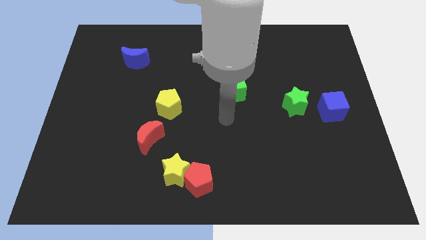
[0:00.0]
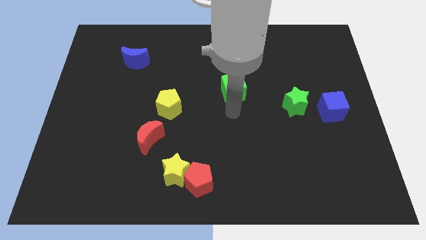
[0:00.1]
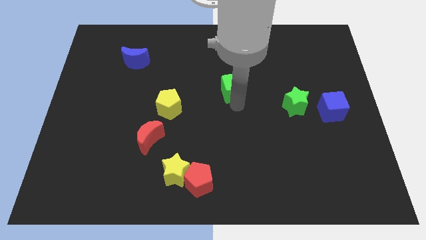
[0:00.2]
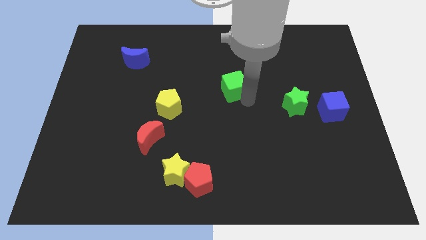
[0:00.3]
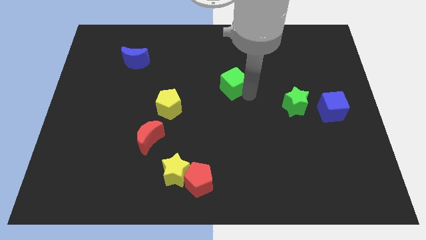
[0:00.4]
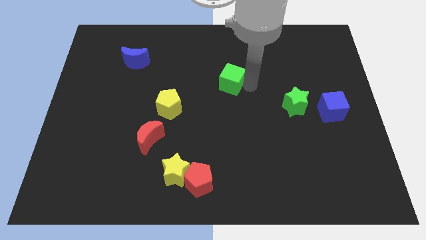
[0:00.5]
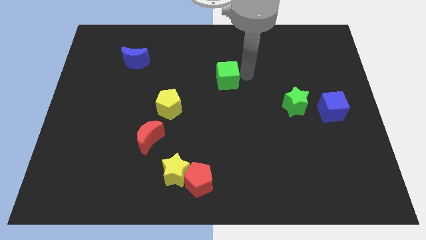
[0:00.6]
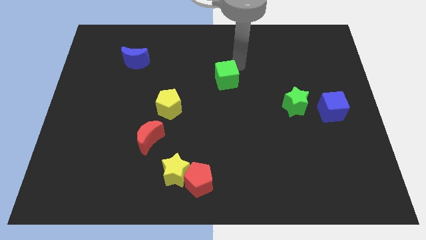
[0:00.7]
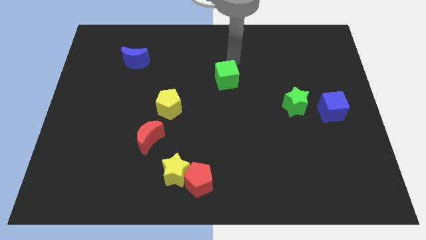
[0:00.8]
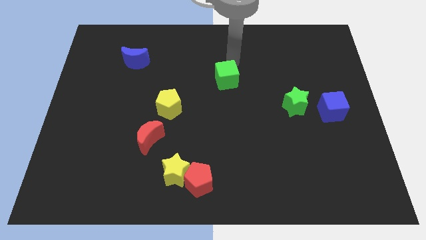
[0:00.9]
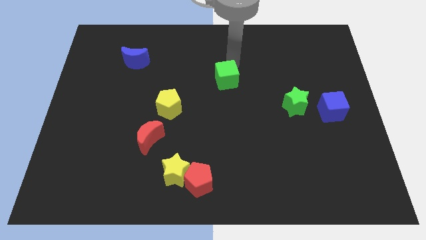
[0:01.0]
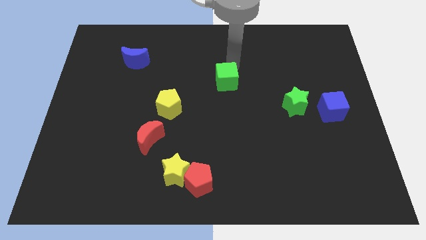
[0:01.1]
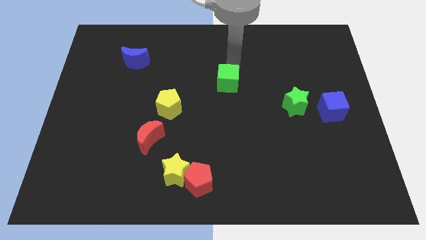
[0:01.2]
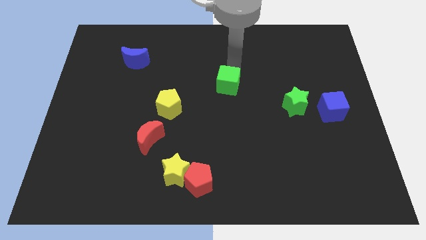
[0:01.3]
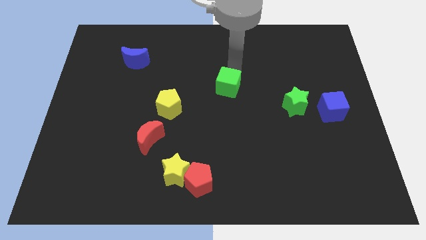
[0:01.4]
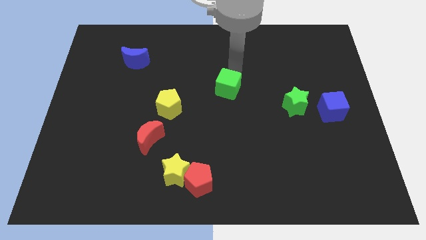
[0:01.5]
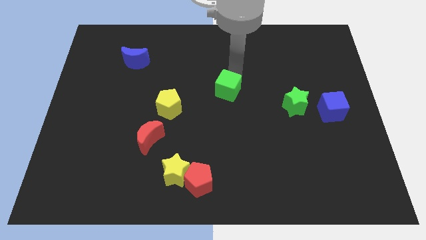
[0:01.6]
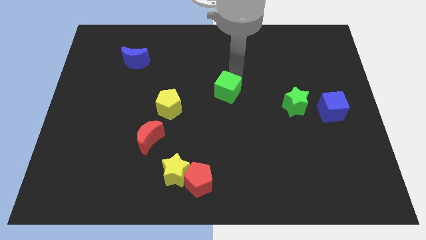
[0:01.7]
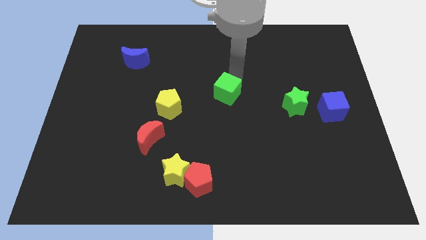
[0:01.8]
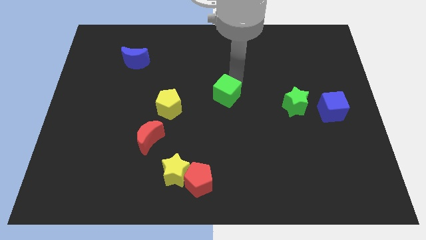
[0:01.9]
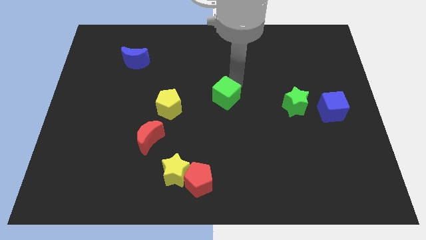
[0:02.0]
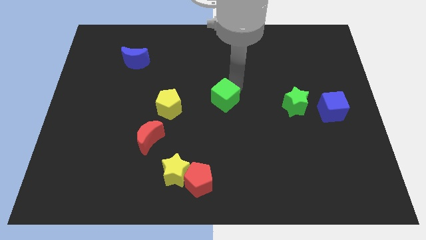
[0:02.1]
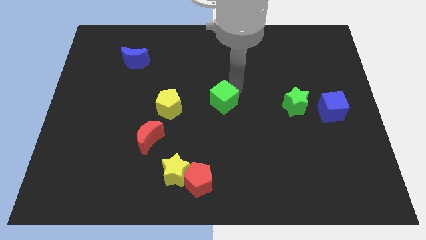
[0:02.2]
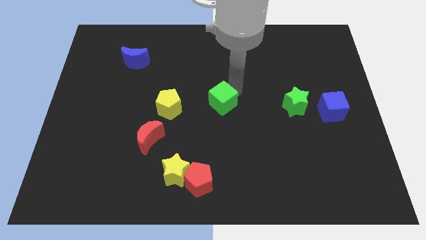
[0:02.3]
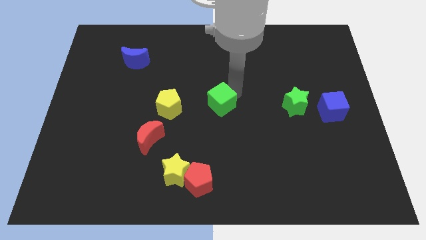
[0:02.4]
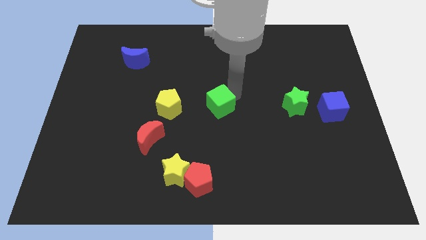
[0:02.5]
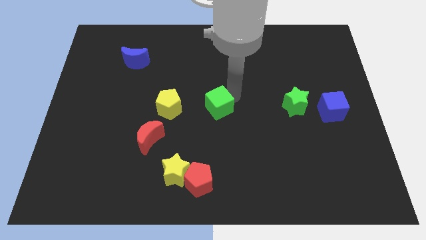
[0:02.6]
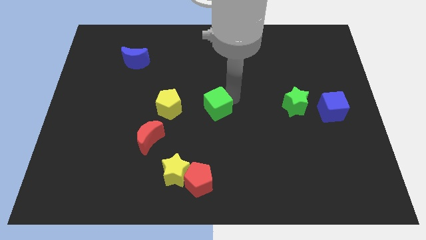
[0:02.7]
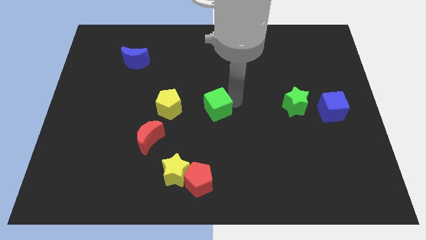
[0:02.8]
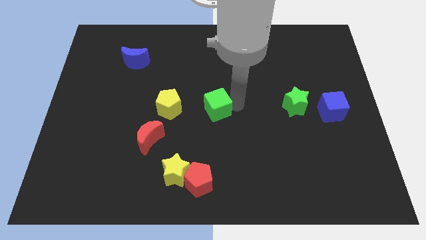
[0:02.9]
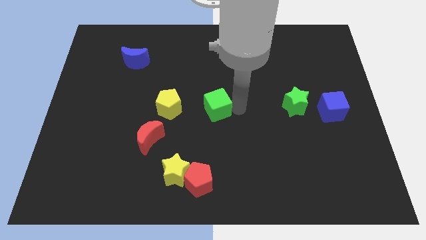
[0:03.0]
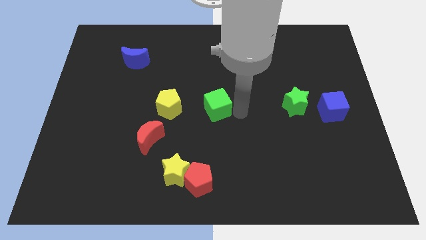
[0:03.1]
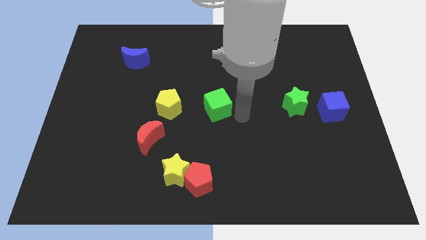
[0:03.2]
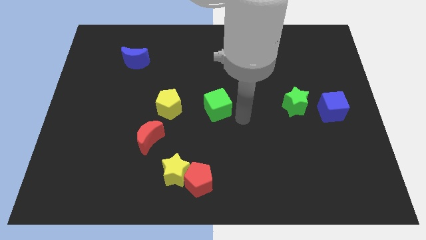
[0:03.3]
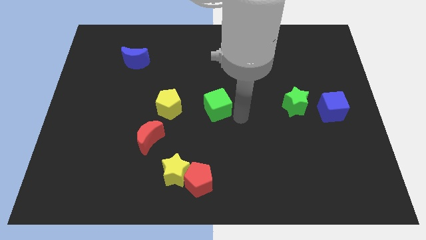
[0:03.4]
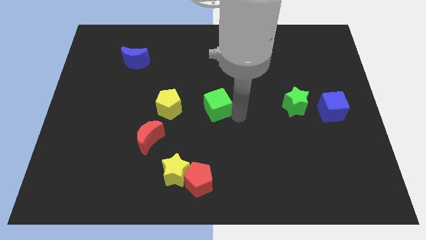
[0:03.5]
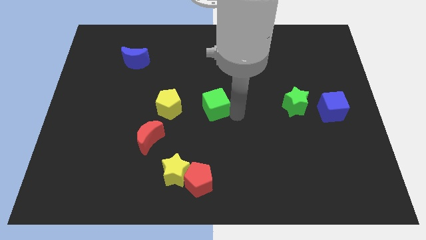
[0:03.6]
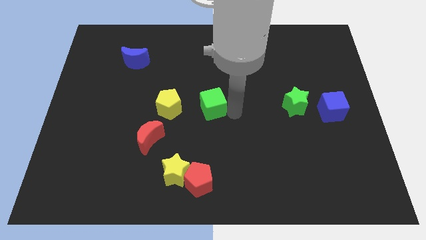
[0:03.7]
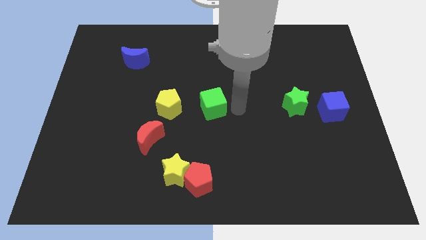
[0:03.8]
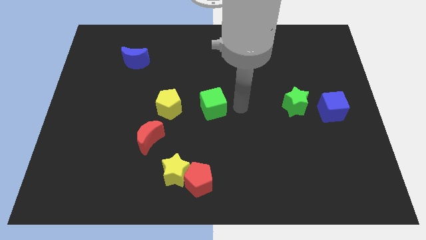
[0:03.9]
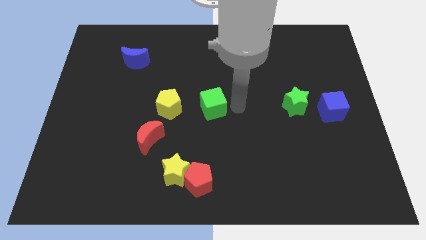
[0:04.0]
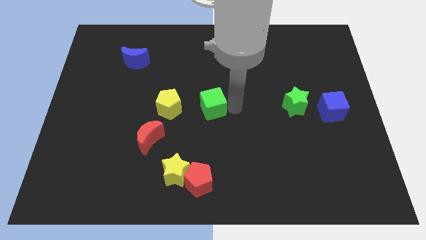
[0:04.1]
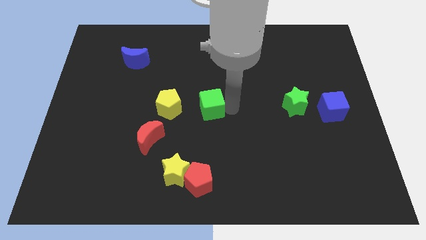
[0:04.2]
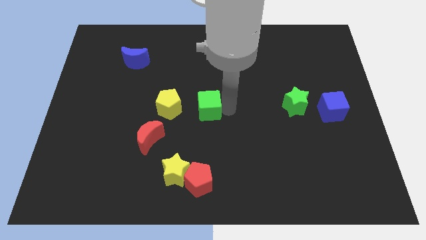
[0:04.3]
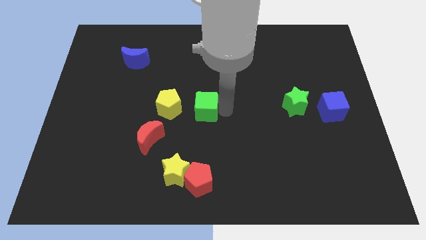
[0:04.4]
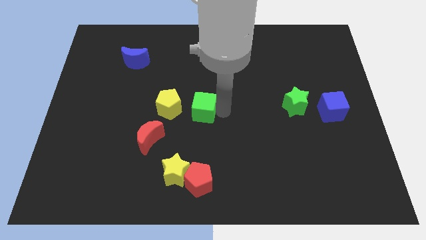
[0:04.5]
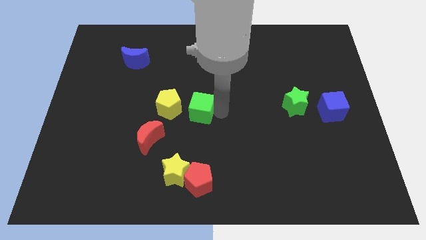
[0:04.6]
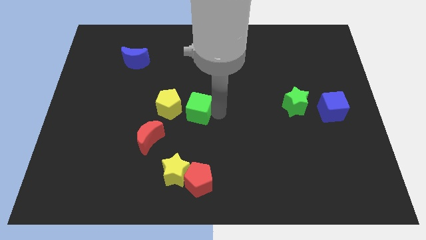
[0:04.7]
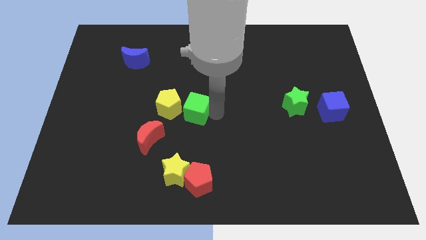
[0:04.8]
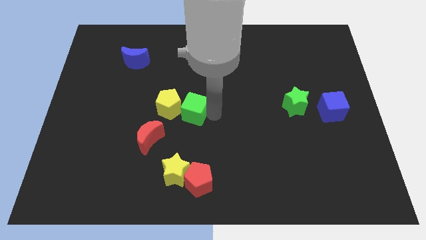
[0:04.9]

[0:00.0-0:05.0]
move the green cube close to the yellow pentagon

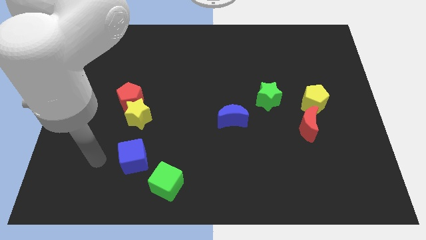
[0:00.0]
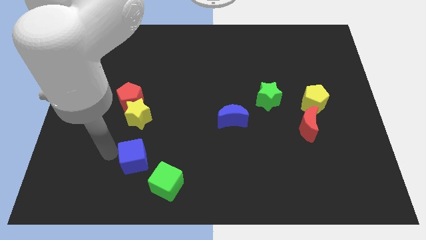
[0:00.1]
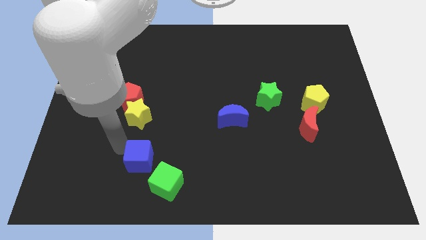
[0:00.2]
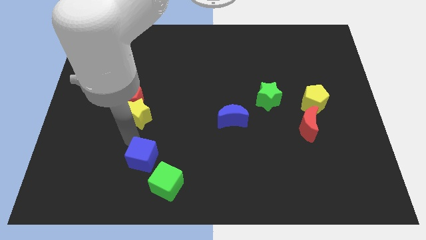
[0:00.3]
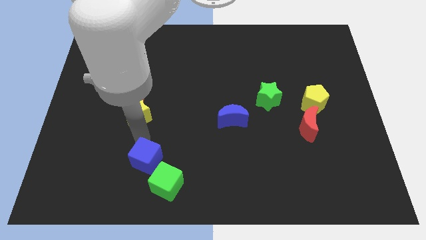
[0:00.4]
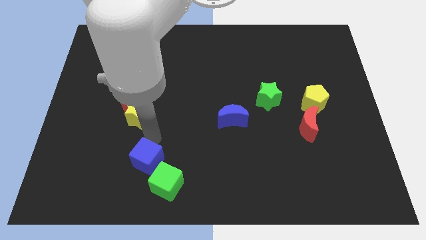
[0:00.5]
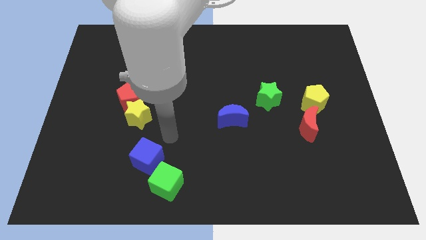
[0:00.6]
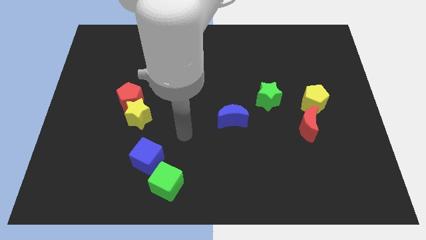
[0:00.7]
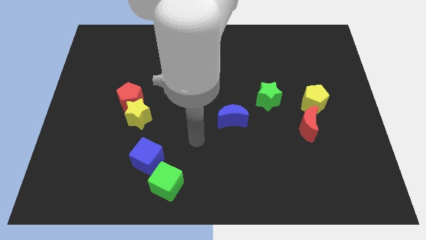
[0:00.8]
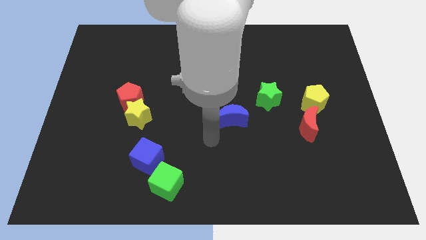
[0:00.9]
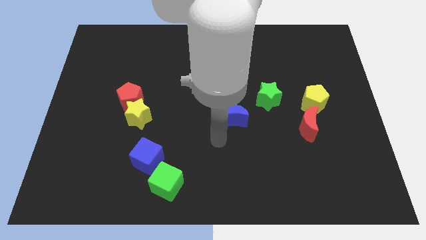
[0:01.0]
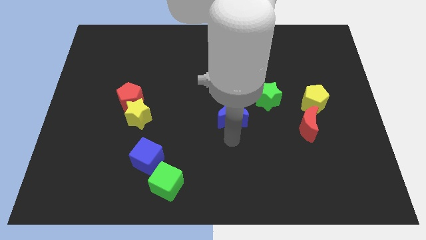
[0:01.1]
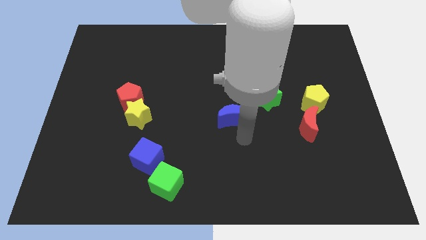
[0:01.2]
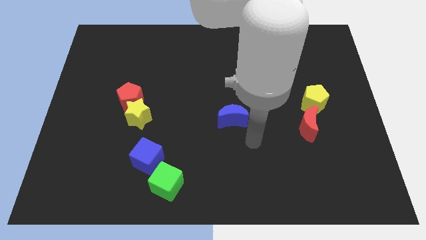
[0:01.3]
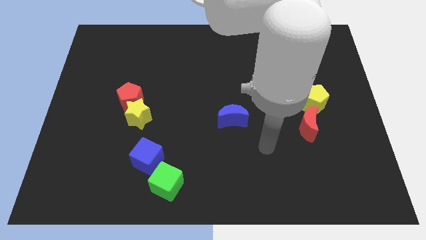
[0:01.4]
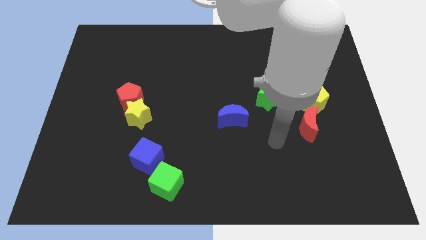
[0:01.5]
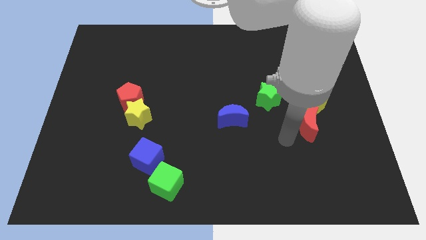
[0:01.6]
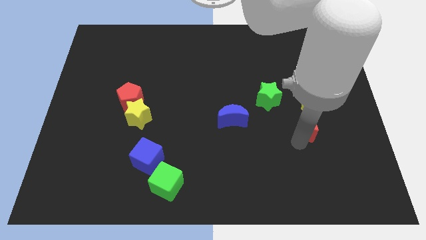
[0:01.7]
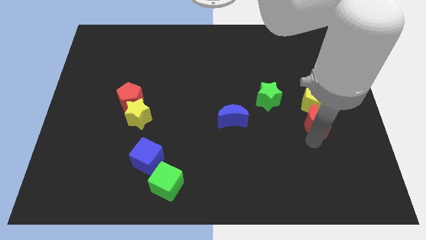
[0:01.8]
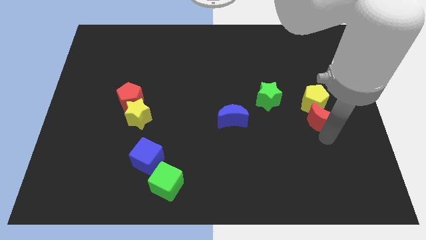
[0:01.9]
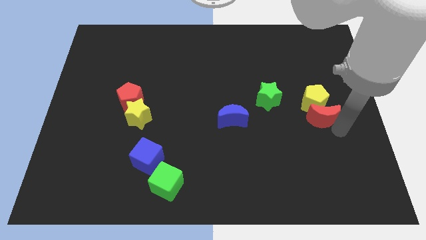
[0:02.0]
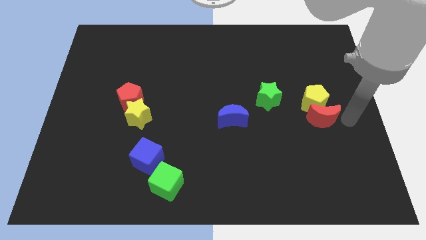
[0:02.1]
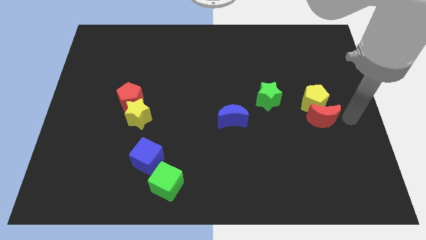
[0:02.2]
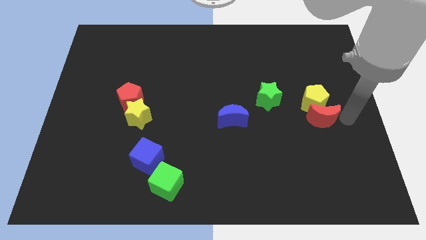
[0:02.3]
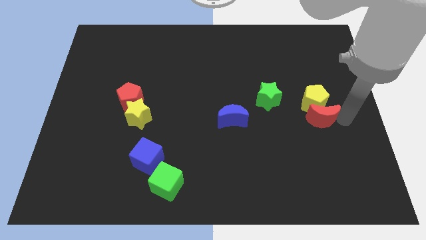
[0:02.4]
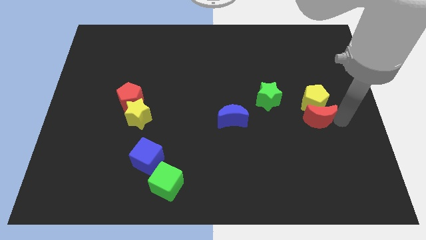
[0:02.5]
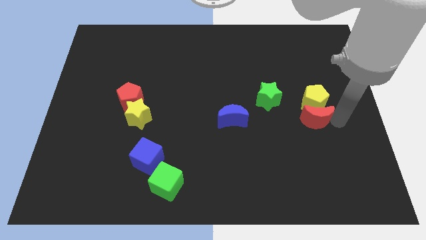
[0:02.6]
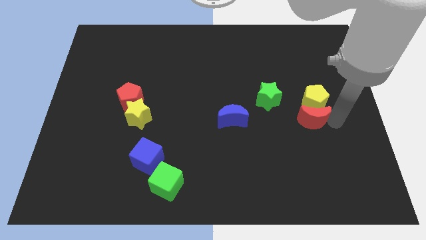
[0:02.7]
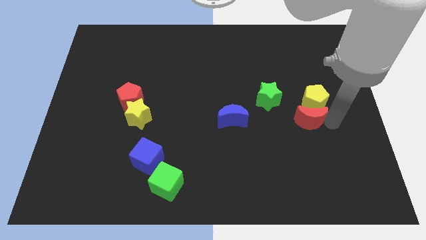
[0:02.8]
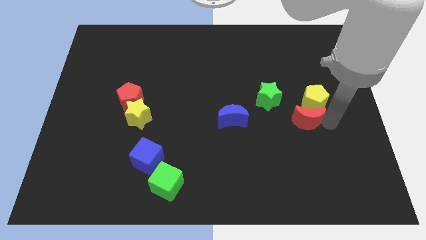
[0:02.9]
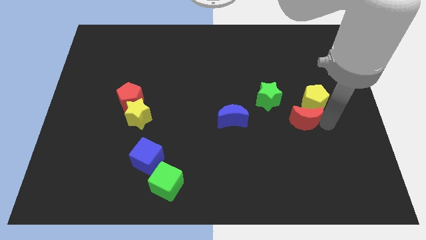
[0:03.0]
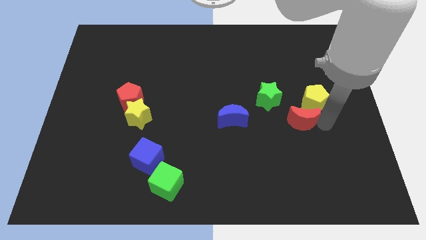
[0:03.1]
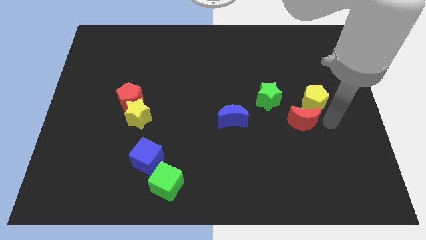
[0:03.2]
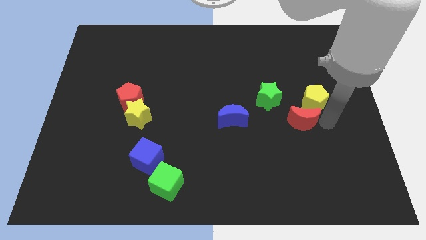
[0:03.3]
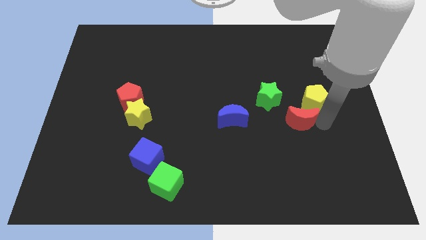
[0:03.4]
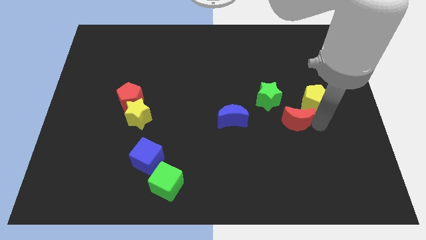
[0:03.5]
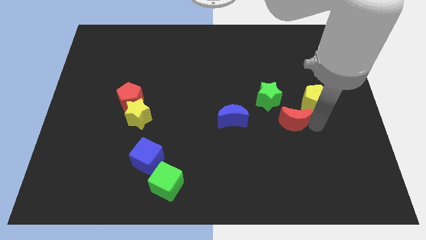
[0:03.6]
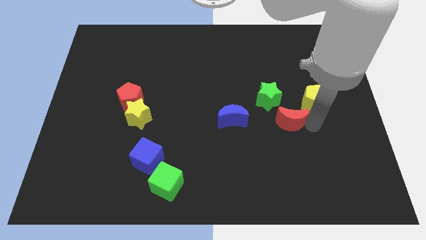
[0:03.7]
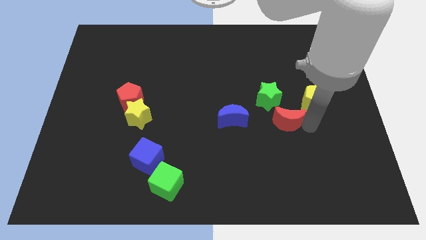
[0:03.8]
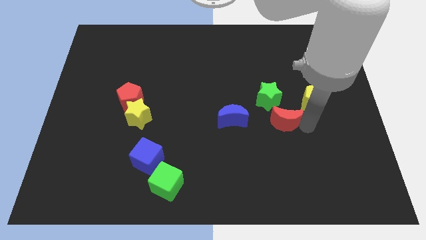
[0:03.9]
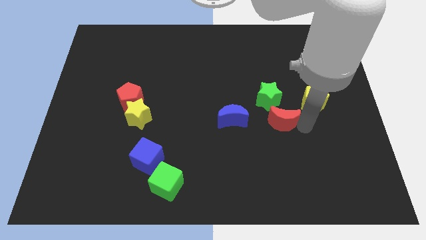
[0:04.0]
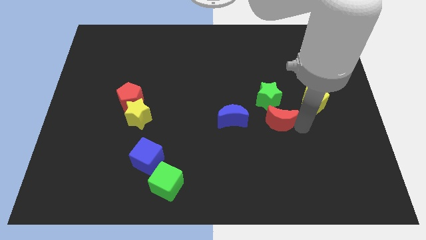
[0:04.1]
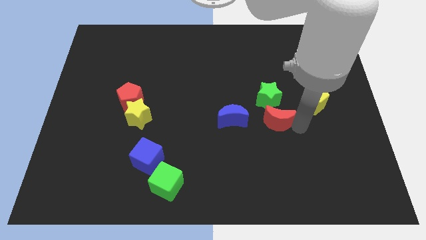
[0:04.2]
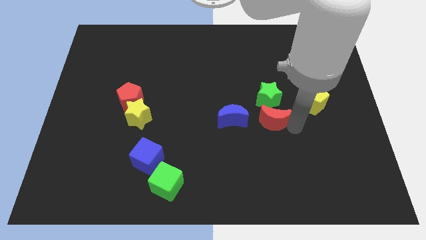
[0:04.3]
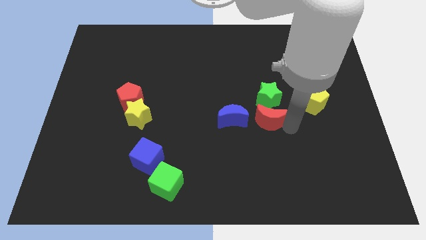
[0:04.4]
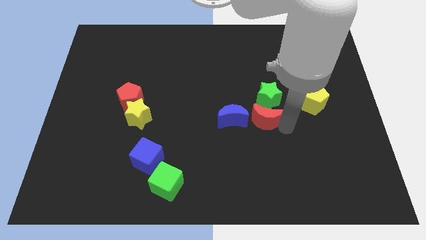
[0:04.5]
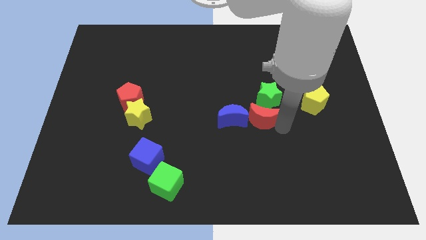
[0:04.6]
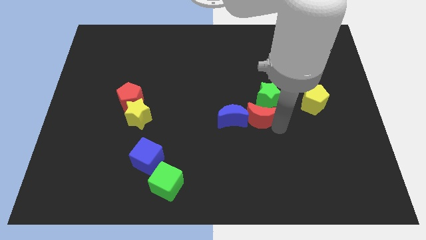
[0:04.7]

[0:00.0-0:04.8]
put the red moon close to the blue moon
